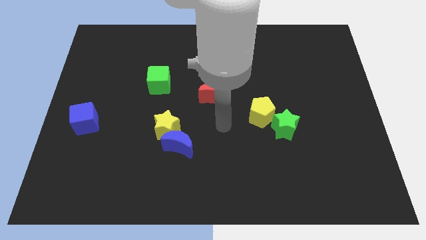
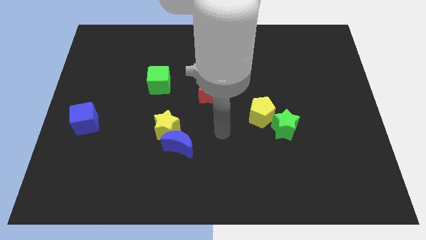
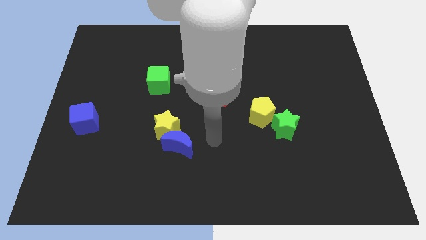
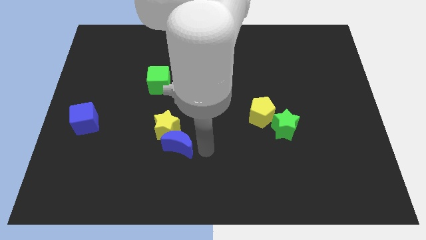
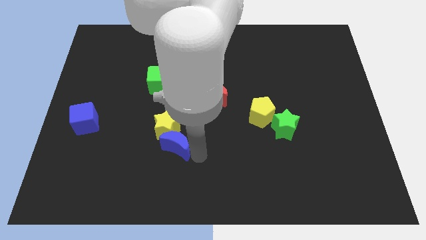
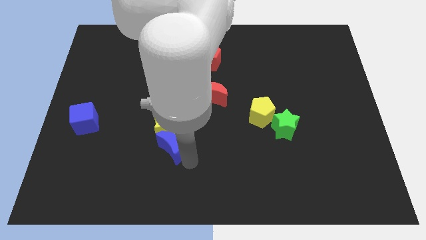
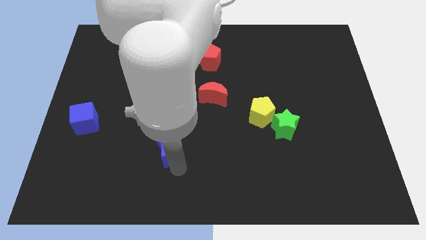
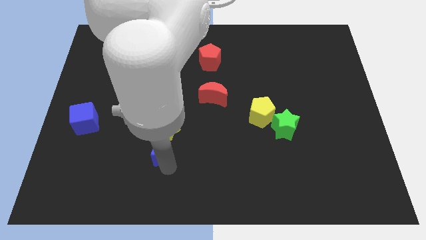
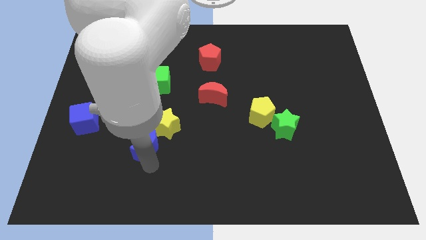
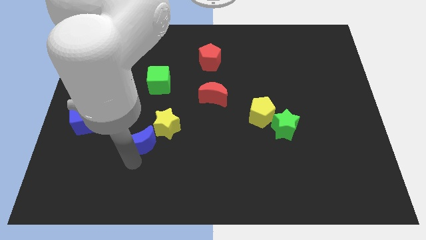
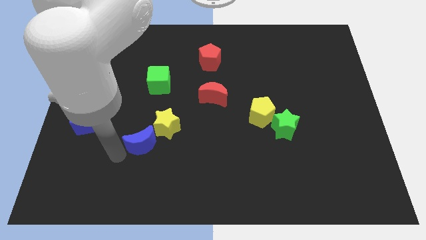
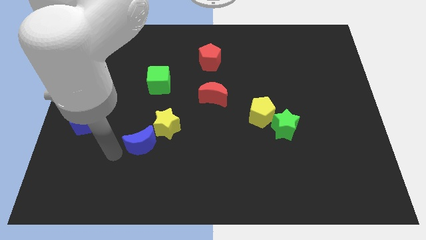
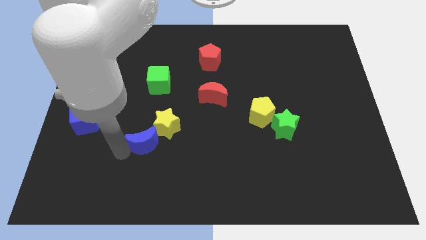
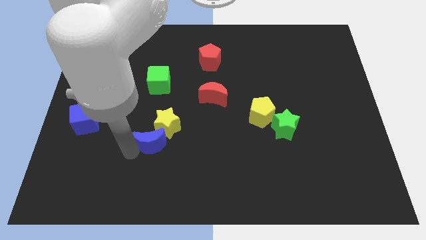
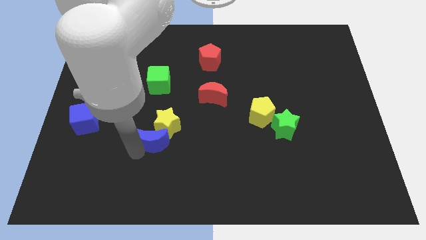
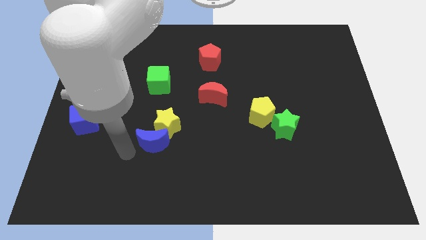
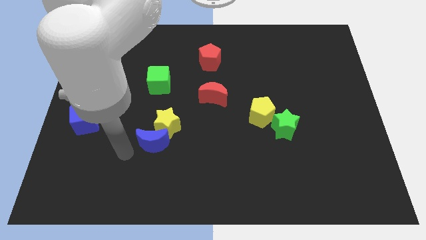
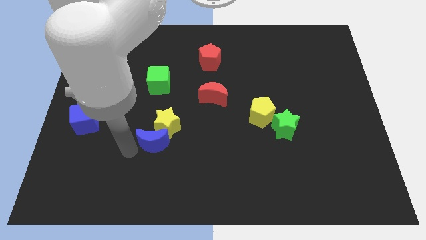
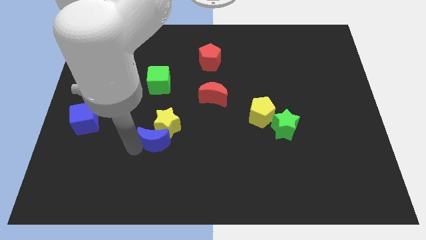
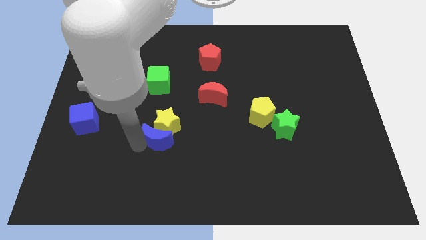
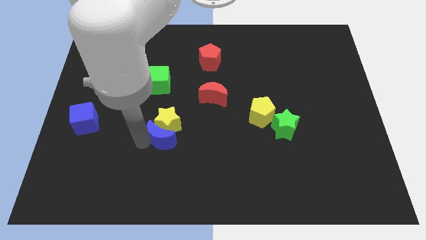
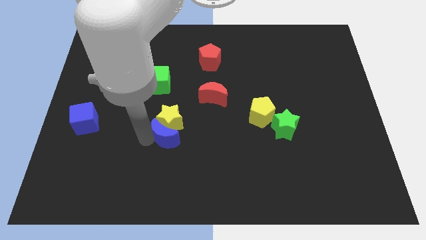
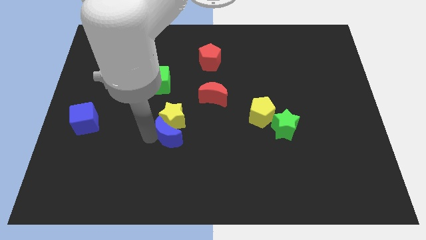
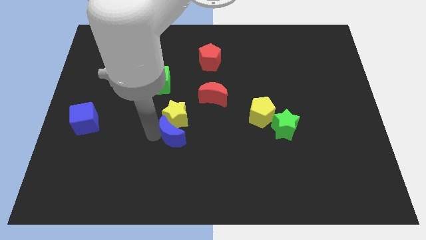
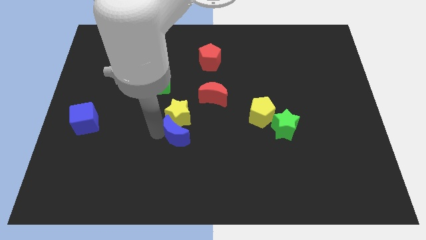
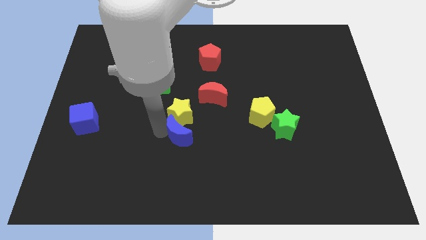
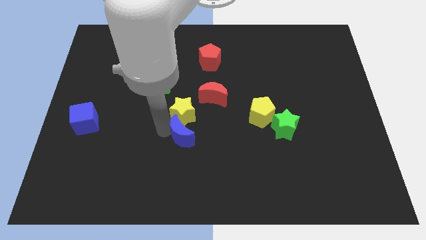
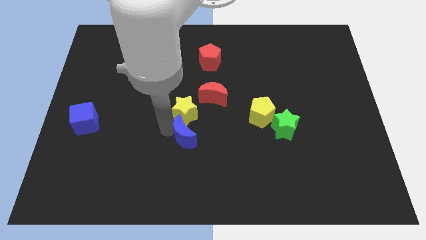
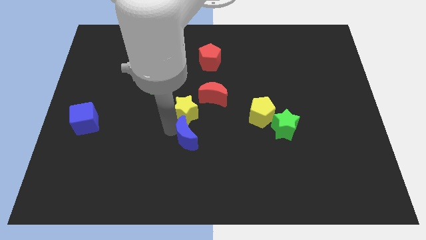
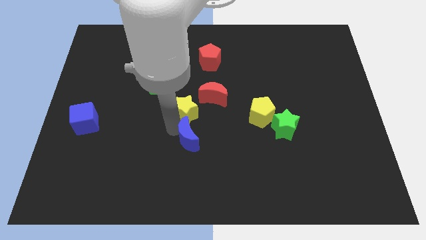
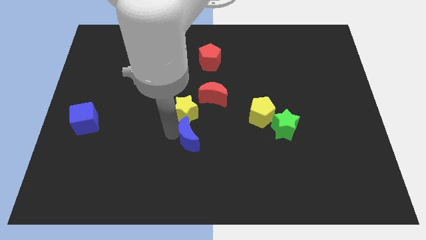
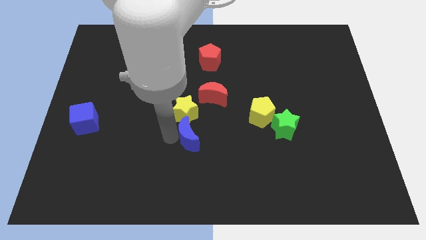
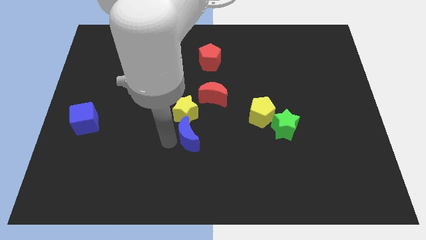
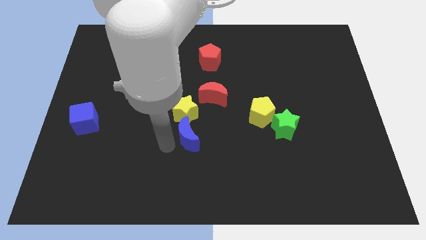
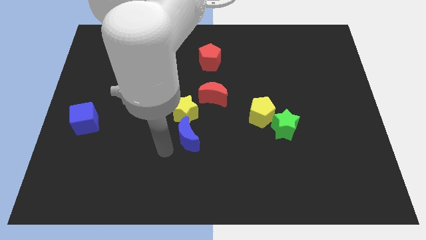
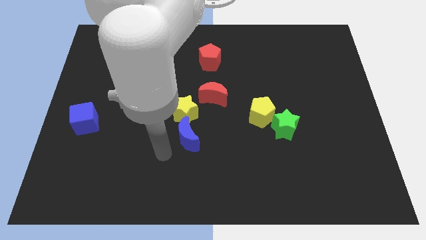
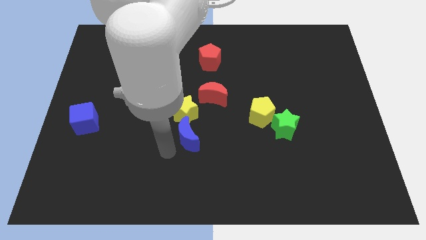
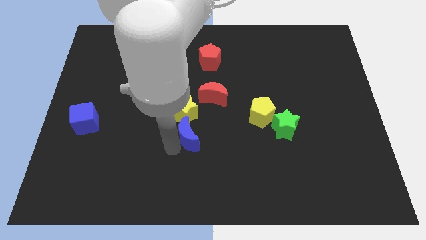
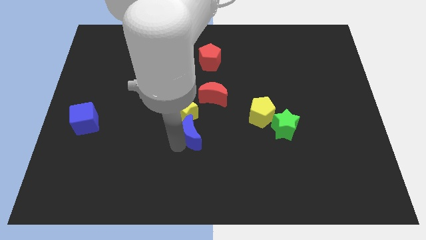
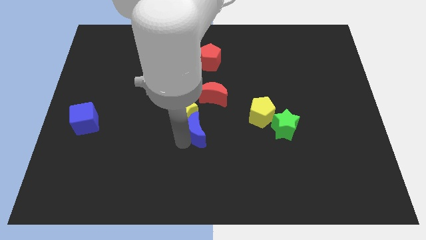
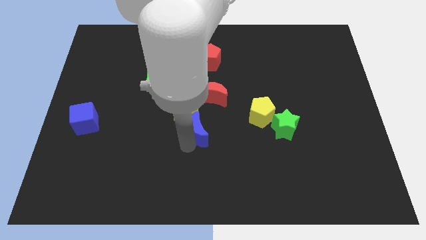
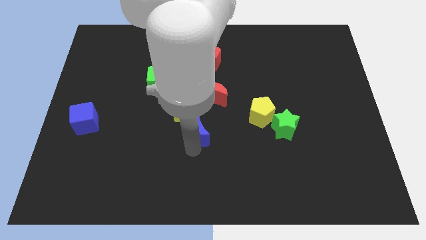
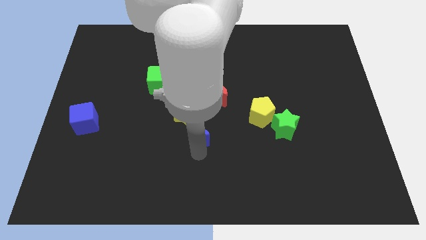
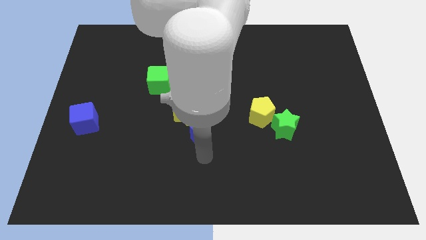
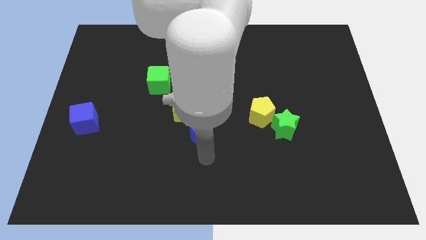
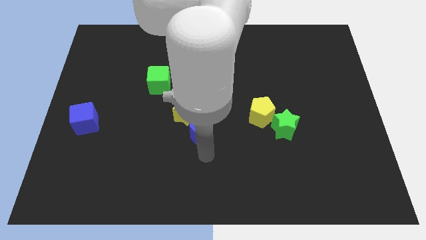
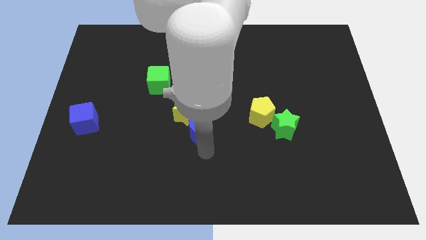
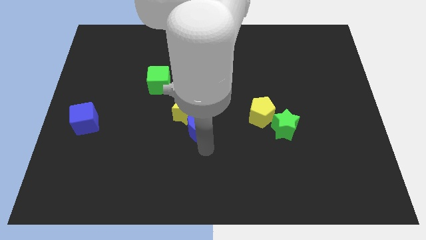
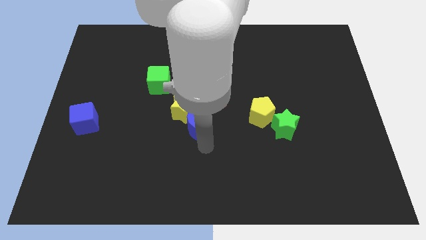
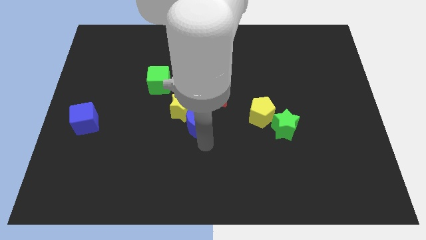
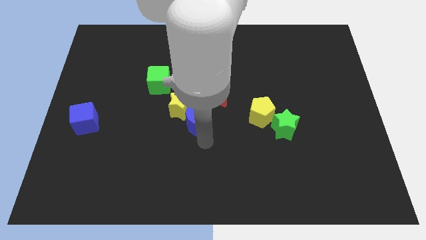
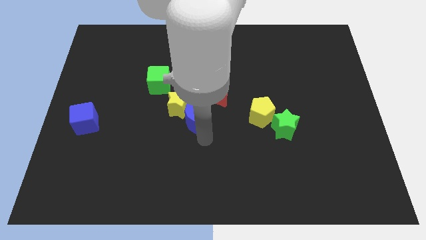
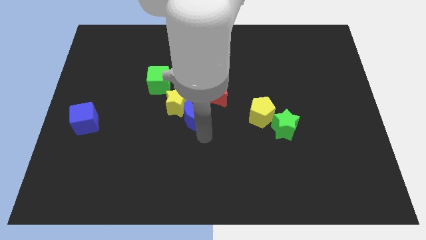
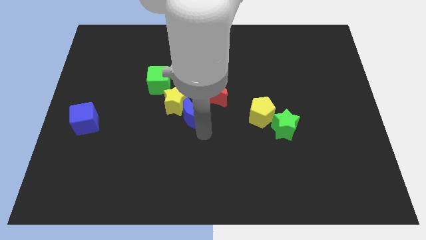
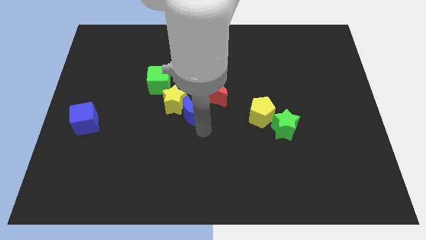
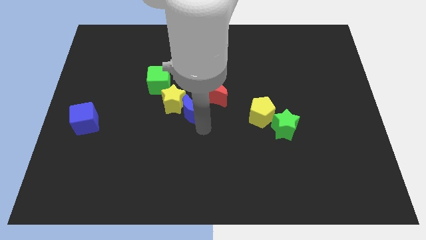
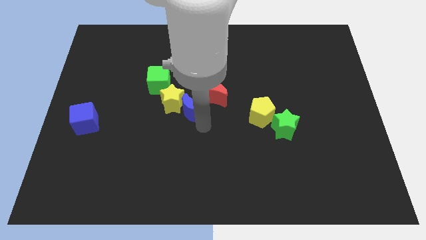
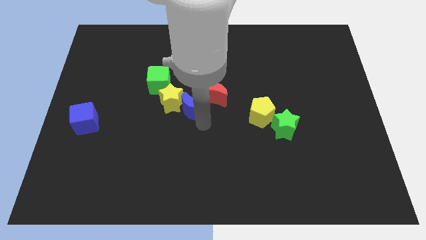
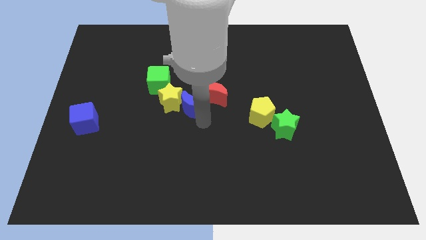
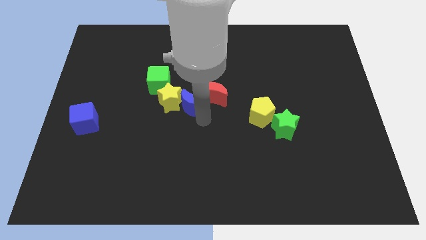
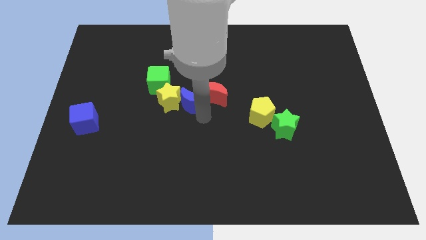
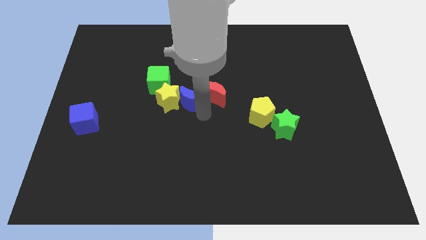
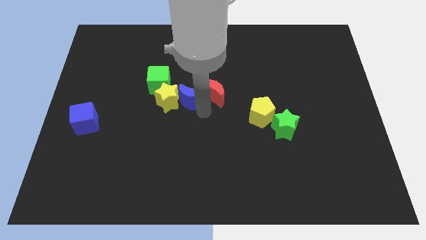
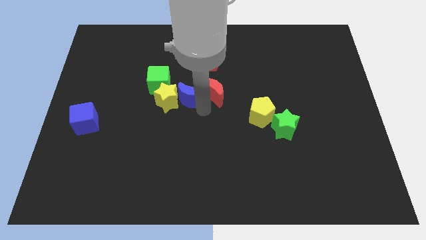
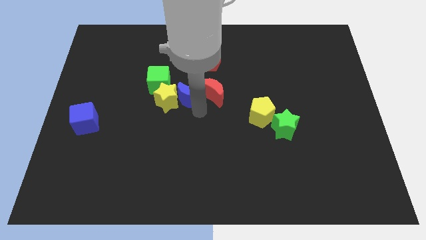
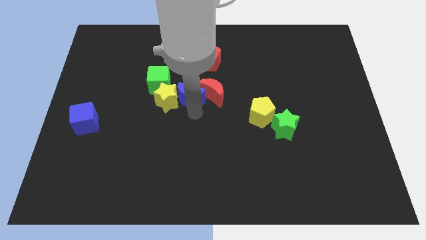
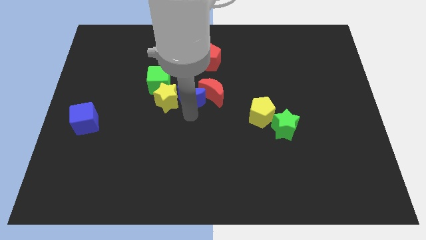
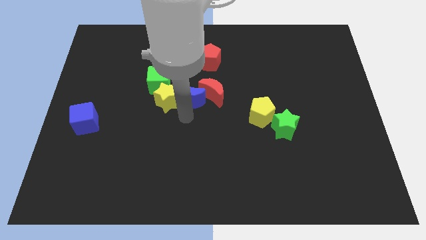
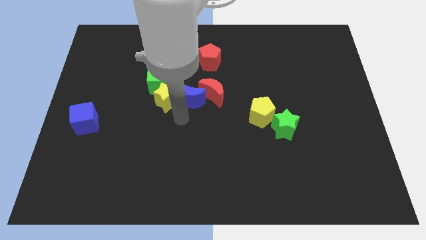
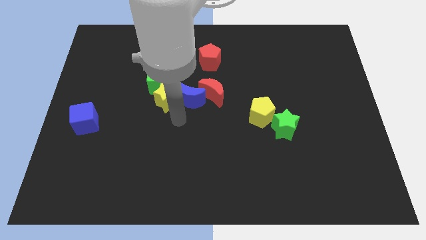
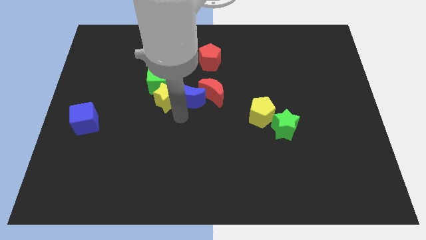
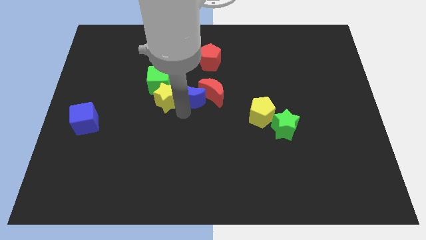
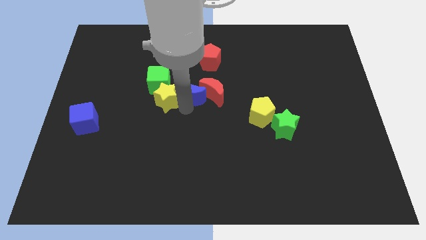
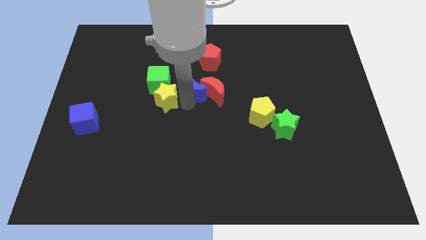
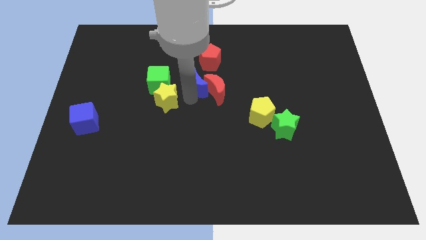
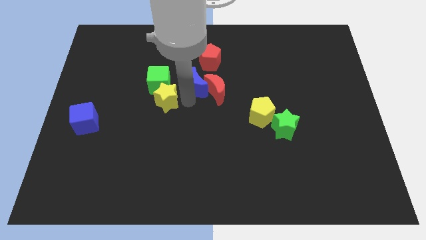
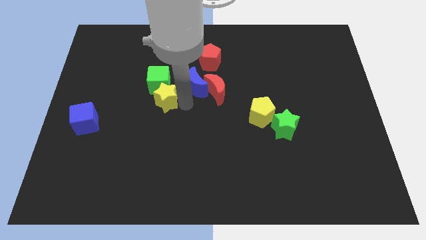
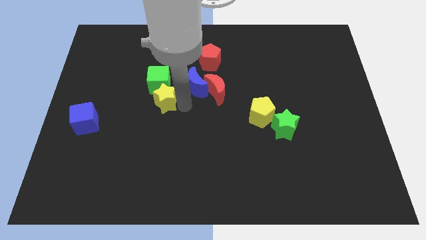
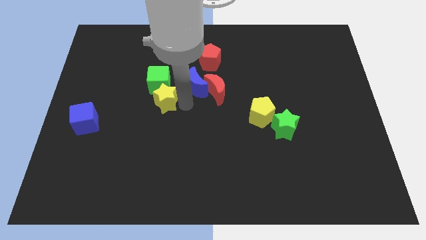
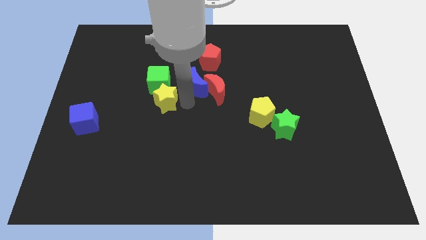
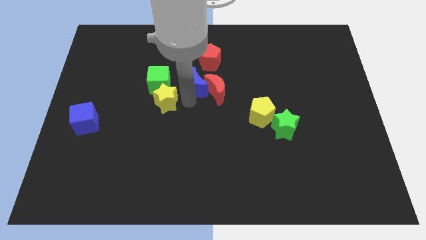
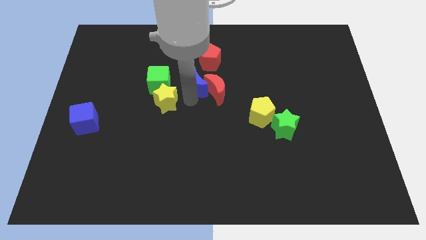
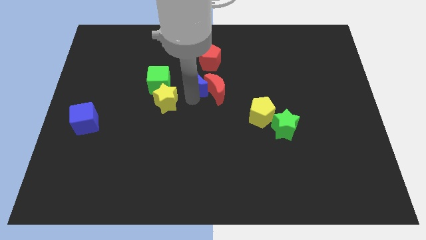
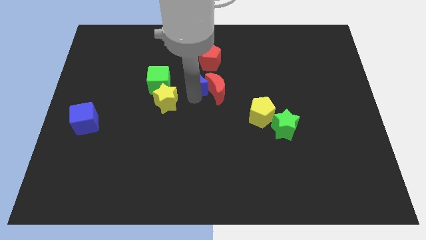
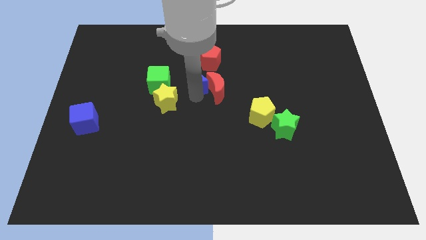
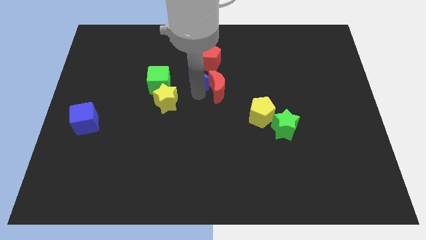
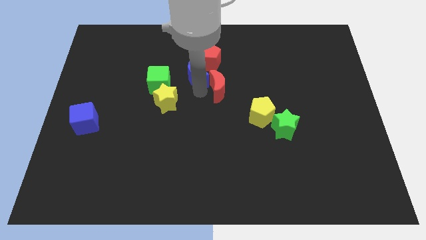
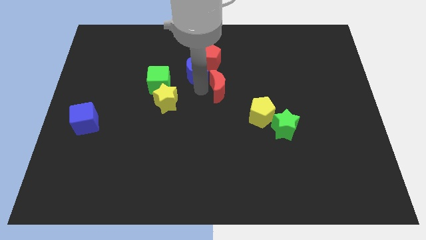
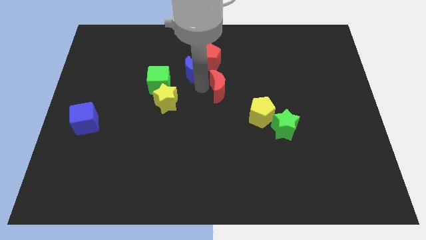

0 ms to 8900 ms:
push the blue moon next to the red pentagon
